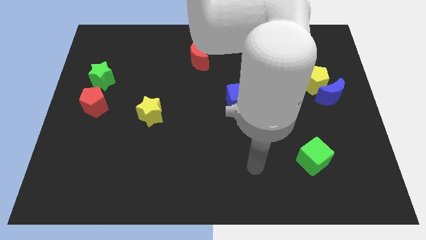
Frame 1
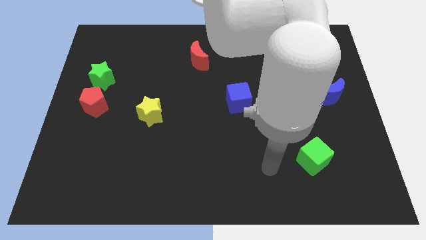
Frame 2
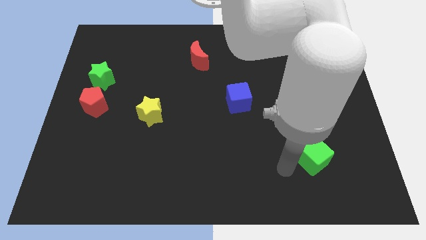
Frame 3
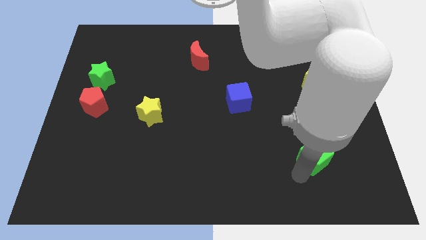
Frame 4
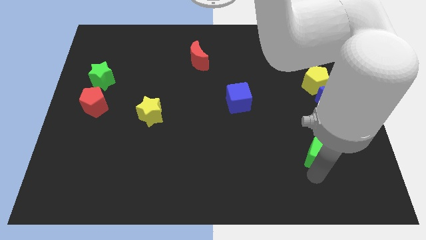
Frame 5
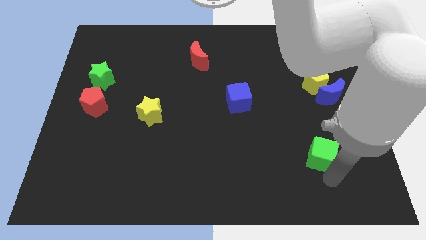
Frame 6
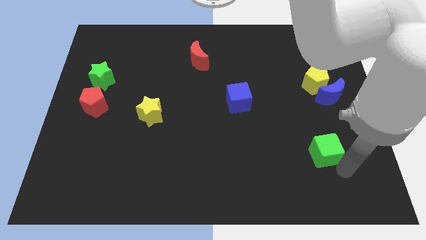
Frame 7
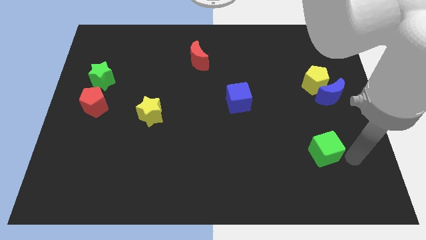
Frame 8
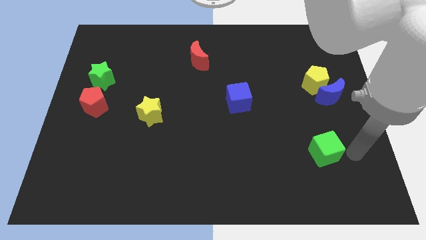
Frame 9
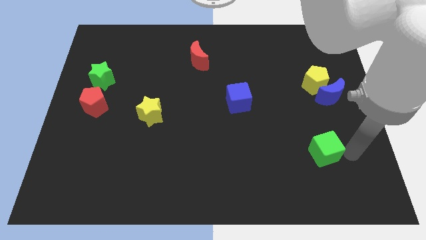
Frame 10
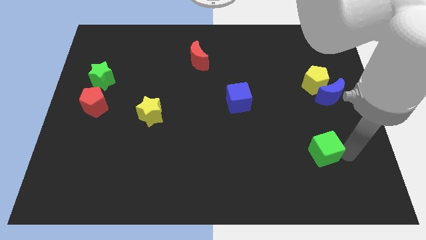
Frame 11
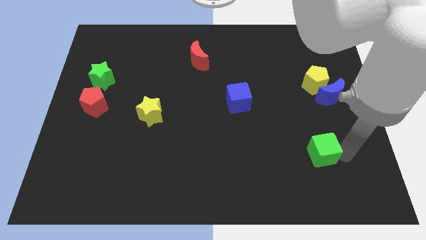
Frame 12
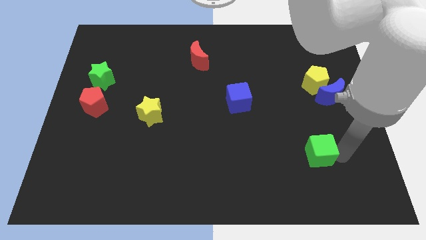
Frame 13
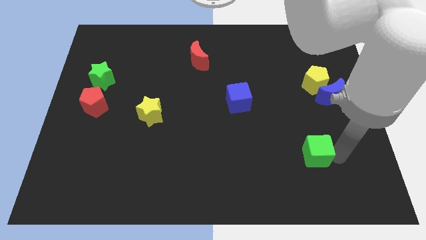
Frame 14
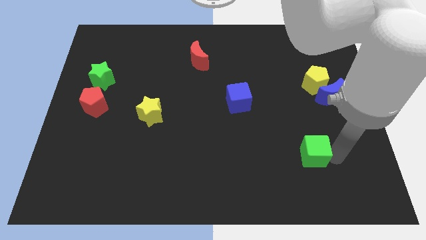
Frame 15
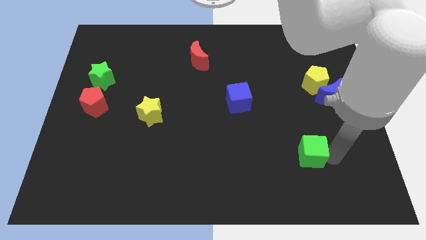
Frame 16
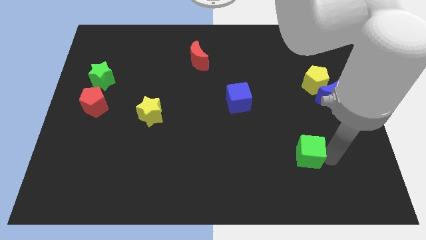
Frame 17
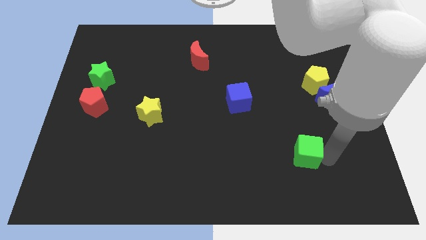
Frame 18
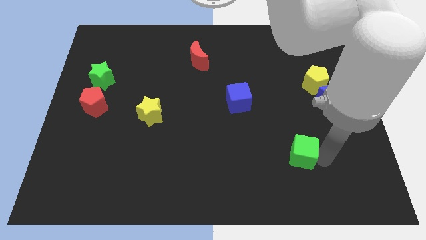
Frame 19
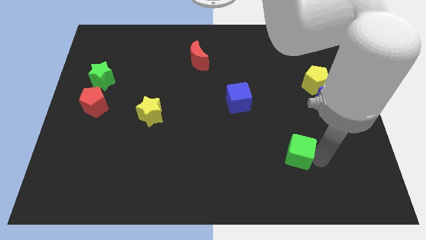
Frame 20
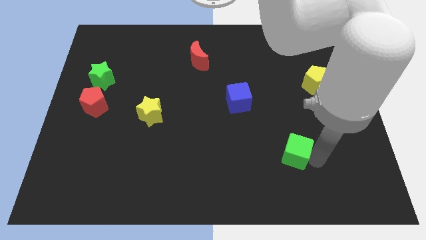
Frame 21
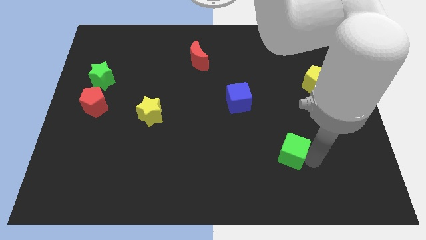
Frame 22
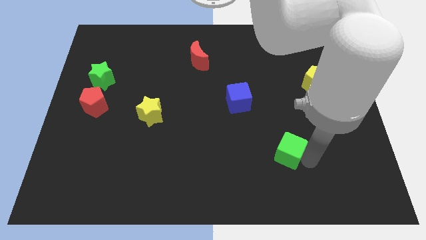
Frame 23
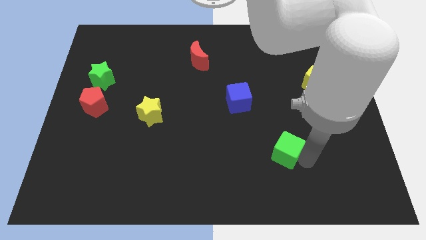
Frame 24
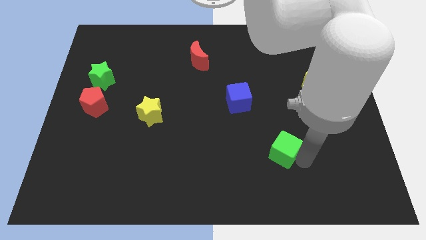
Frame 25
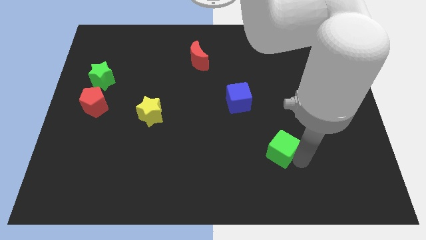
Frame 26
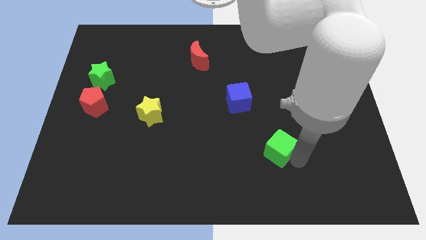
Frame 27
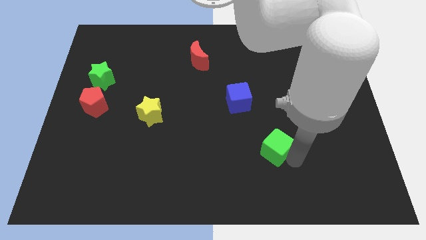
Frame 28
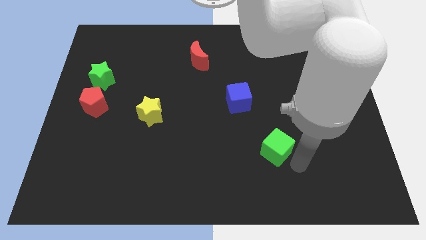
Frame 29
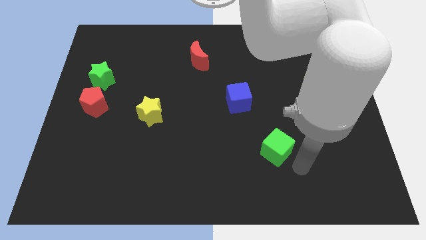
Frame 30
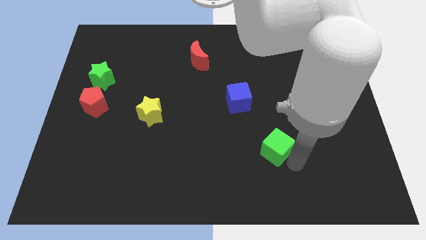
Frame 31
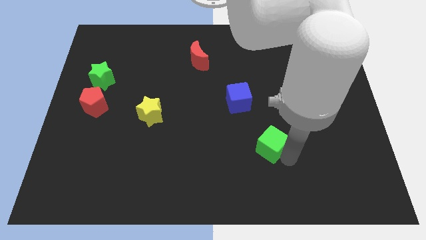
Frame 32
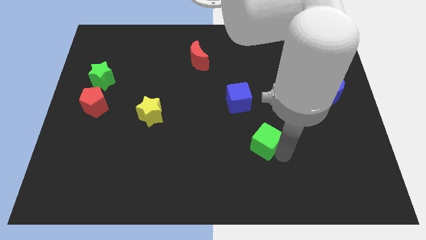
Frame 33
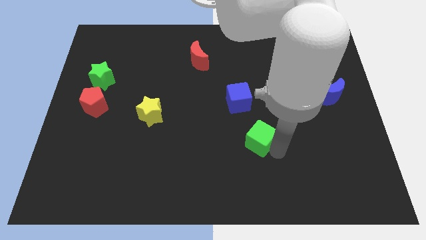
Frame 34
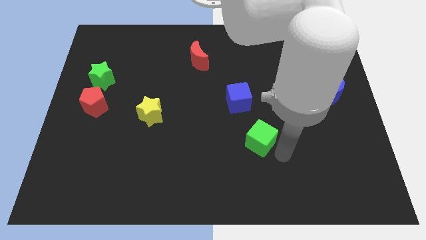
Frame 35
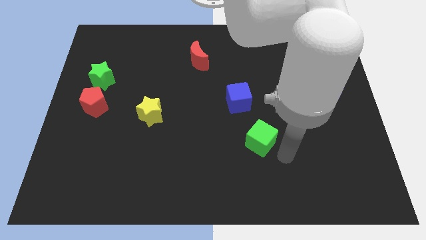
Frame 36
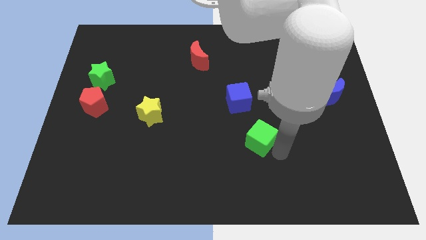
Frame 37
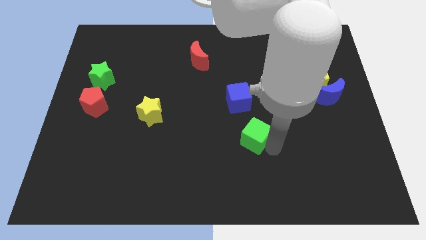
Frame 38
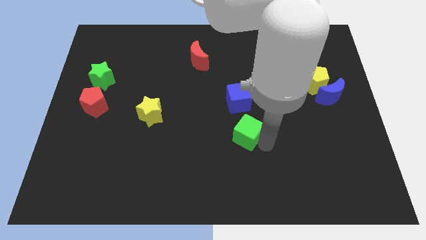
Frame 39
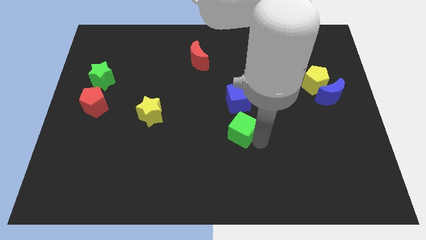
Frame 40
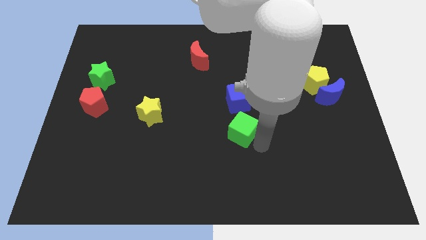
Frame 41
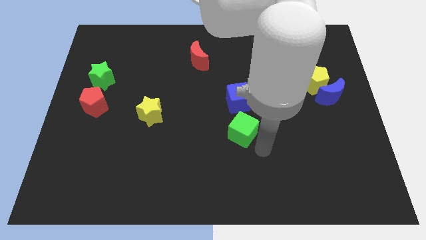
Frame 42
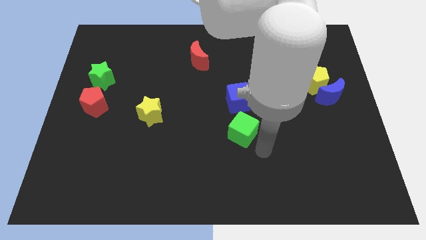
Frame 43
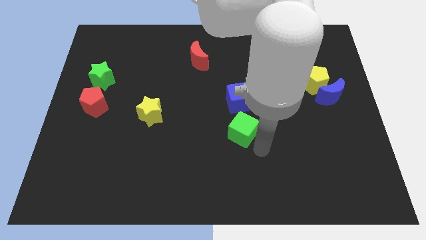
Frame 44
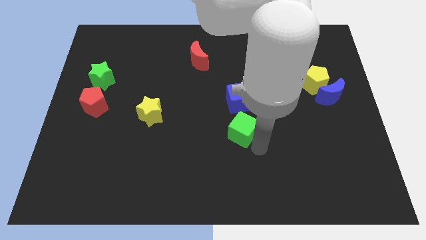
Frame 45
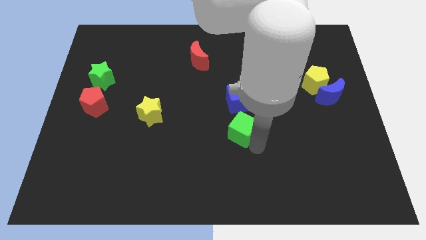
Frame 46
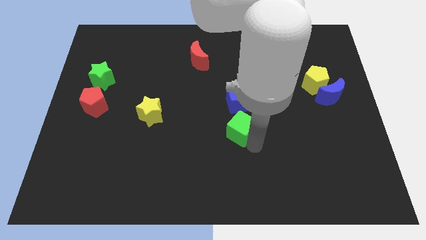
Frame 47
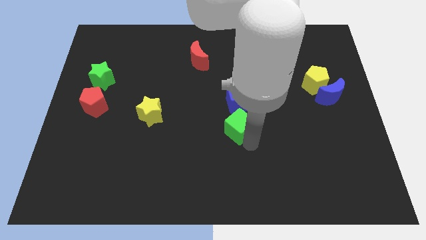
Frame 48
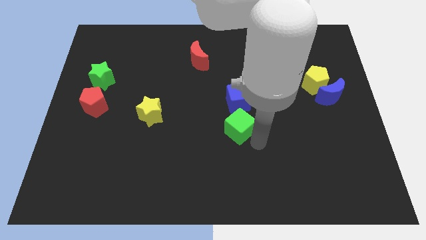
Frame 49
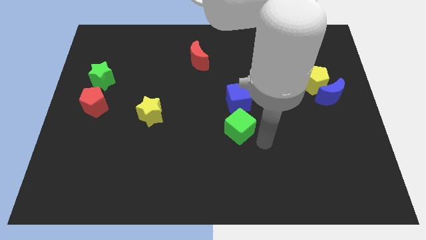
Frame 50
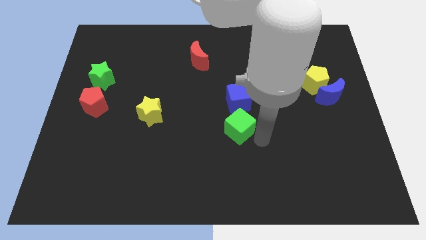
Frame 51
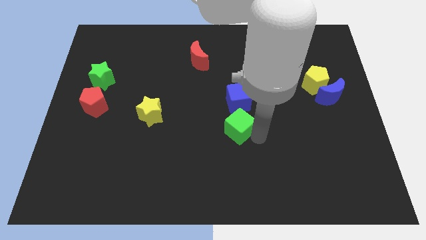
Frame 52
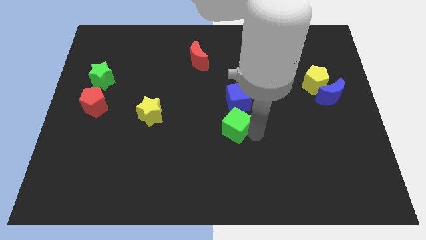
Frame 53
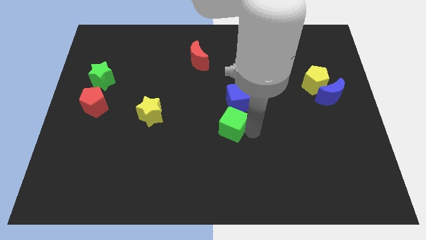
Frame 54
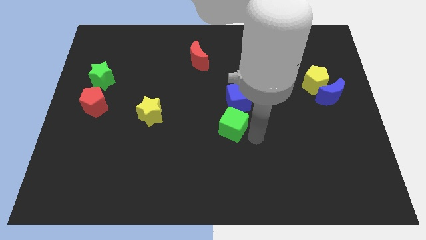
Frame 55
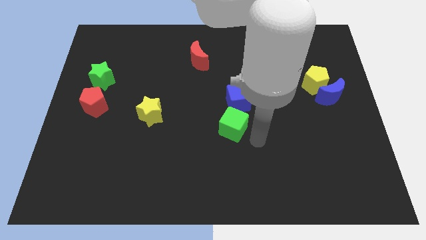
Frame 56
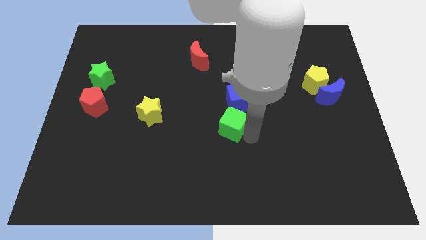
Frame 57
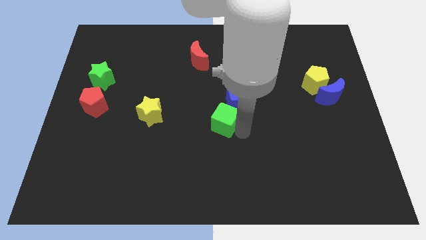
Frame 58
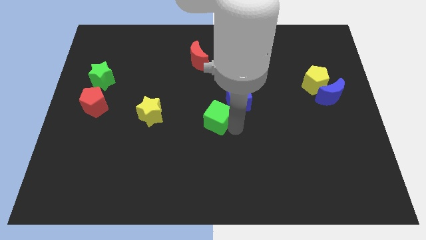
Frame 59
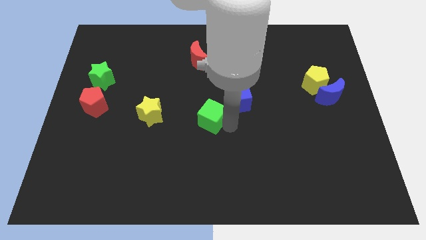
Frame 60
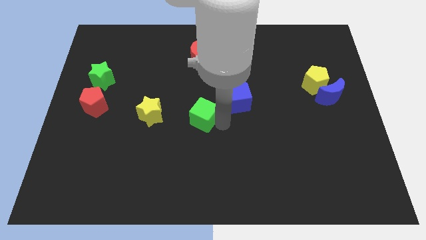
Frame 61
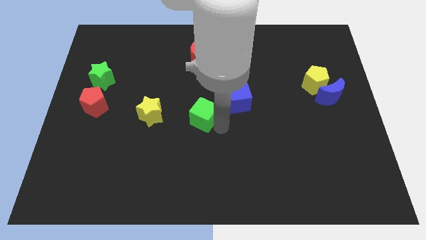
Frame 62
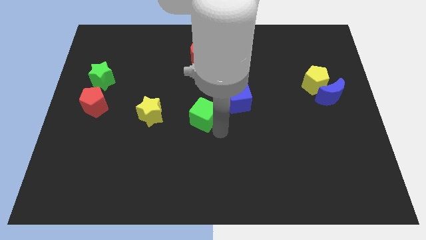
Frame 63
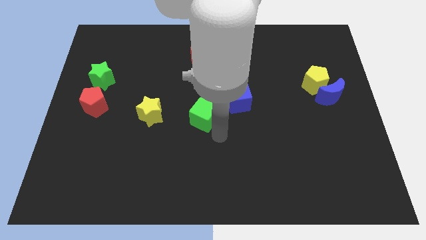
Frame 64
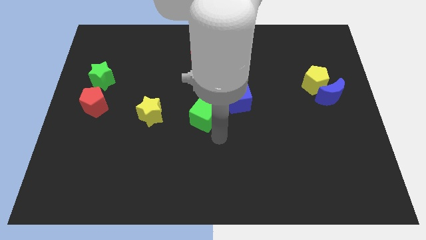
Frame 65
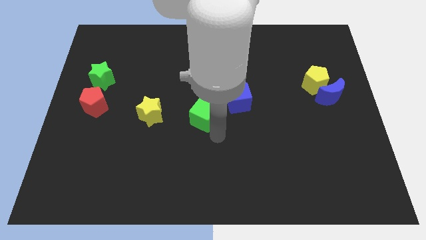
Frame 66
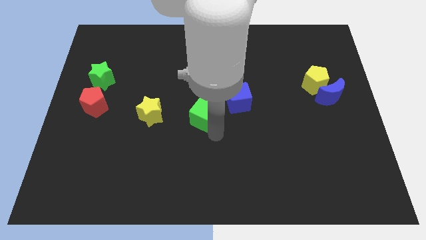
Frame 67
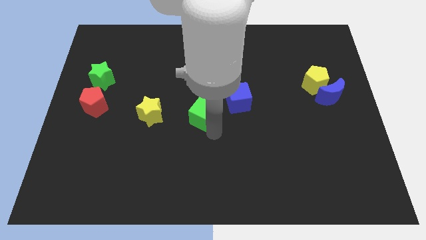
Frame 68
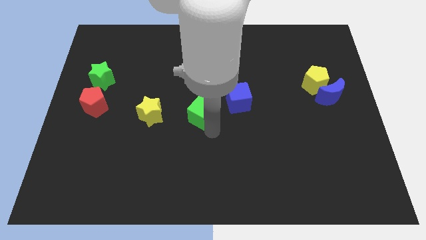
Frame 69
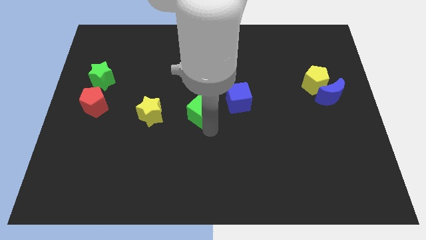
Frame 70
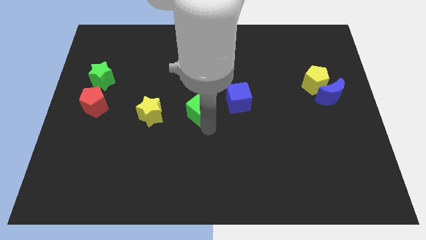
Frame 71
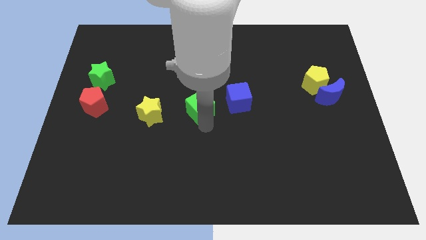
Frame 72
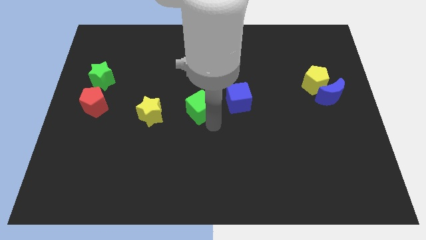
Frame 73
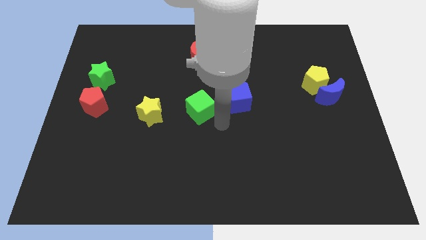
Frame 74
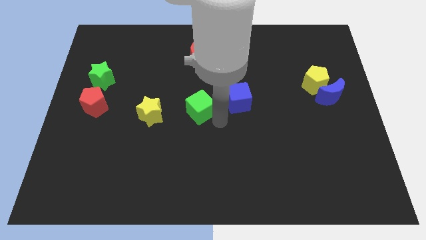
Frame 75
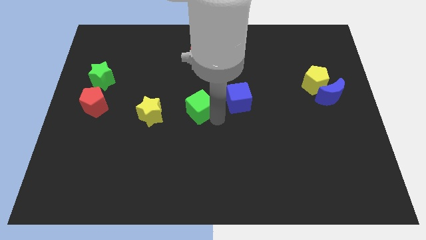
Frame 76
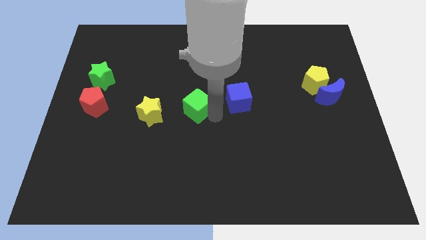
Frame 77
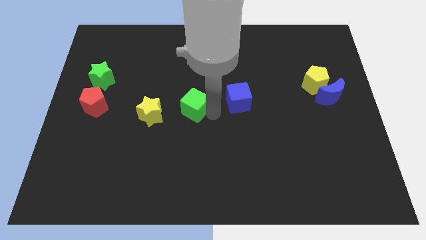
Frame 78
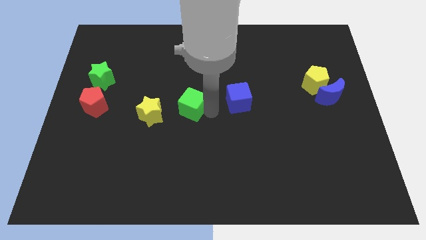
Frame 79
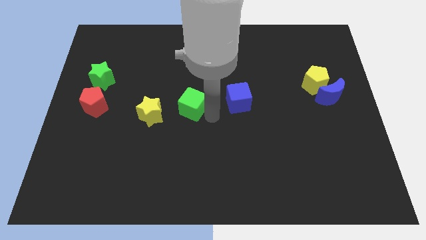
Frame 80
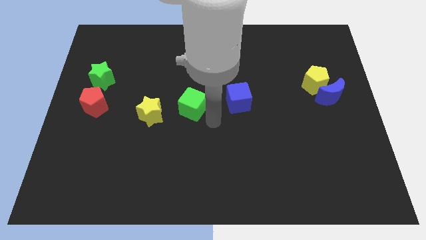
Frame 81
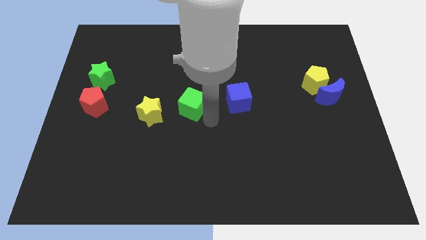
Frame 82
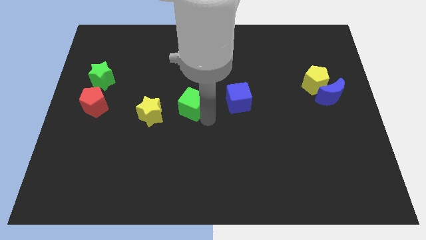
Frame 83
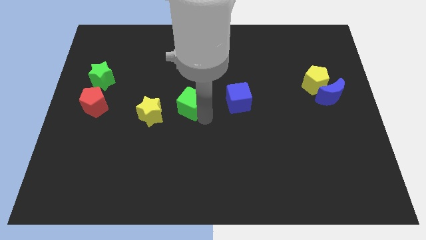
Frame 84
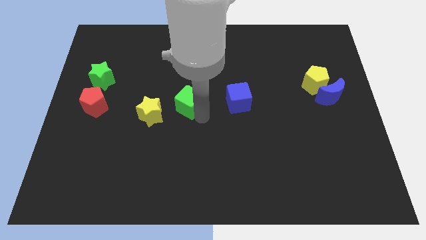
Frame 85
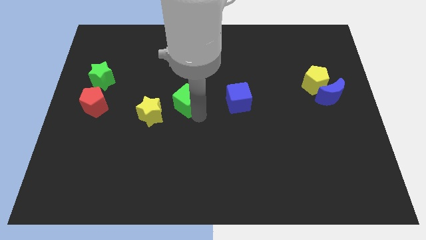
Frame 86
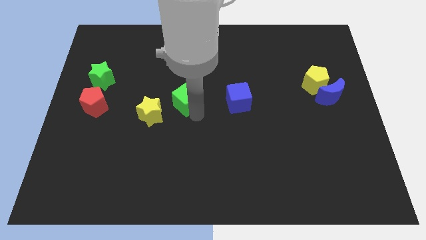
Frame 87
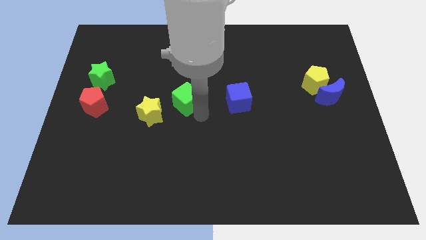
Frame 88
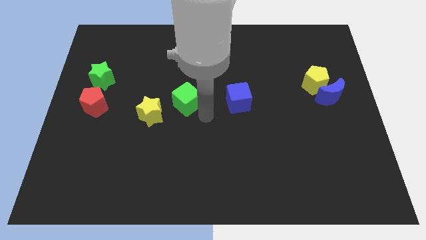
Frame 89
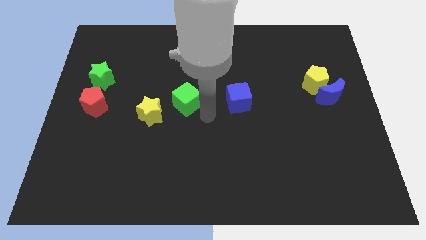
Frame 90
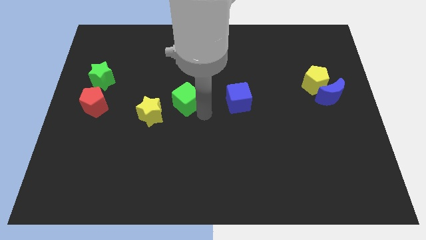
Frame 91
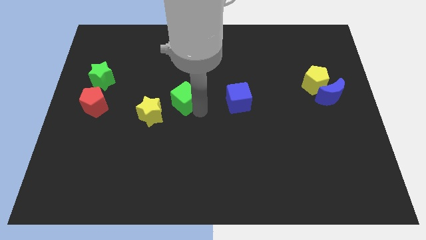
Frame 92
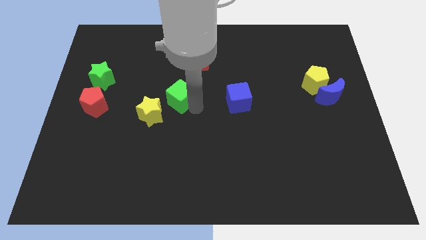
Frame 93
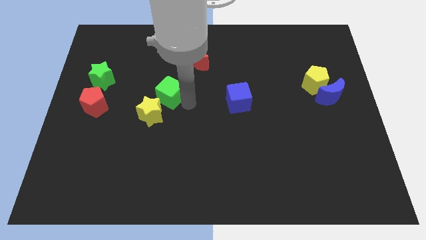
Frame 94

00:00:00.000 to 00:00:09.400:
push the green cube to the top of the yellow star
